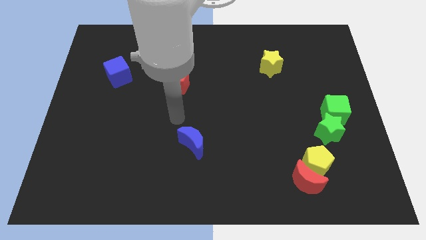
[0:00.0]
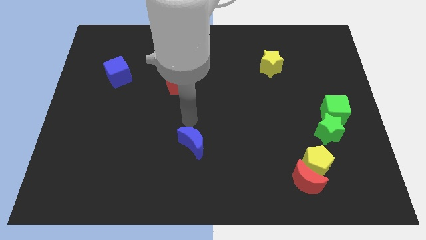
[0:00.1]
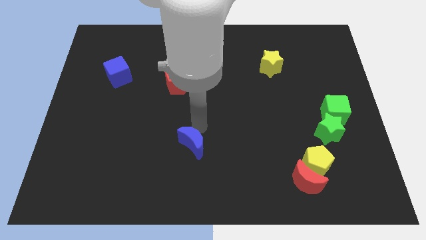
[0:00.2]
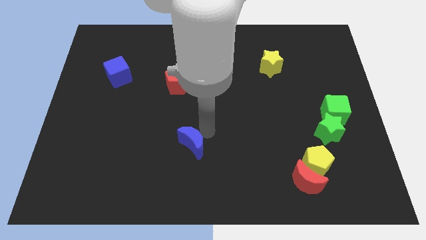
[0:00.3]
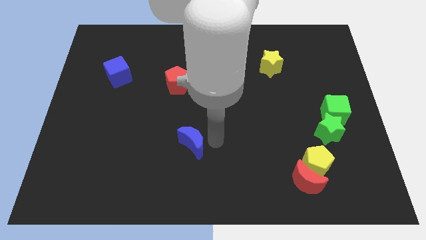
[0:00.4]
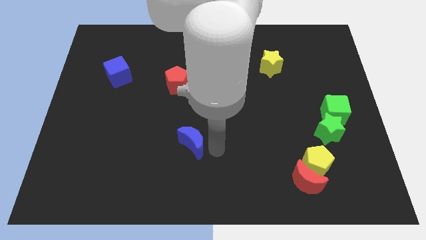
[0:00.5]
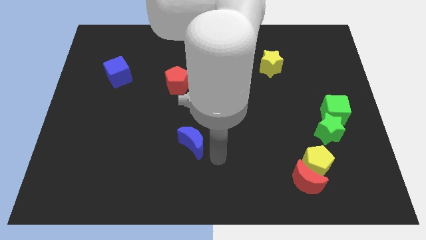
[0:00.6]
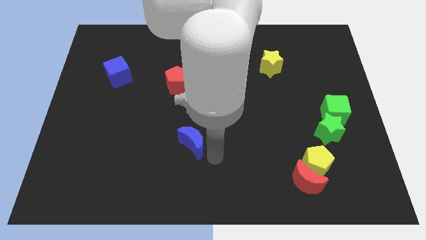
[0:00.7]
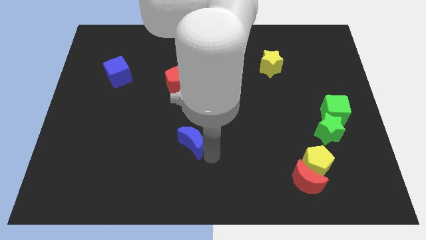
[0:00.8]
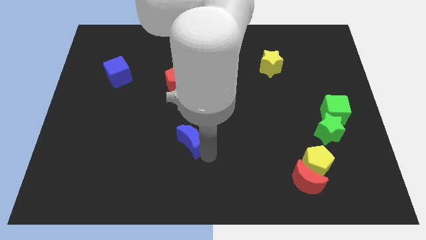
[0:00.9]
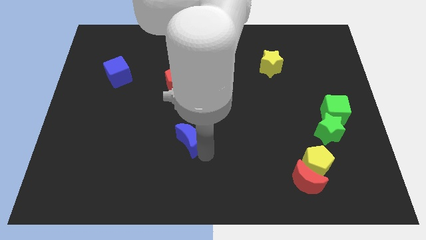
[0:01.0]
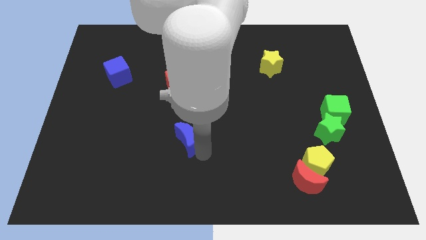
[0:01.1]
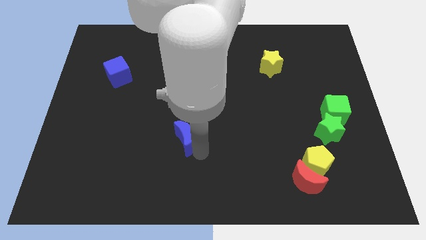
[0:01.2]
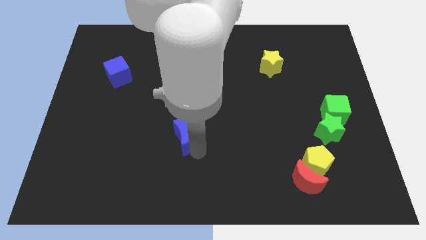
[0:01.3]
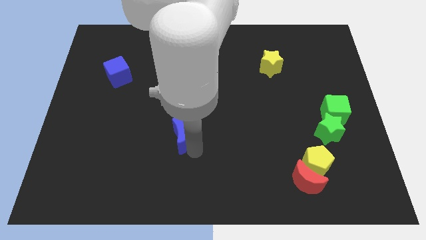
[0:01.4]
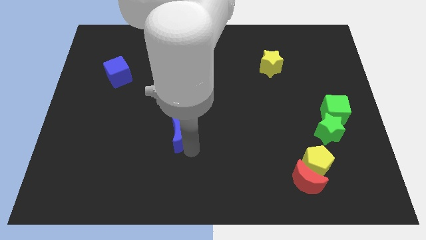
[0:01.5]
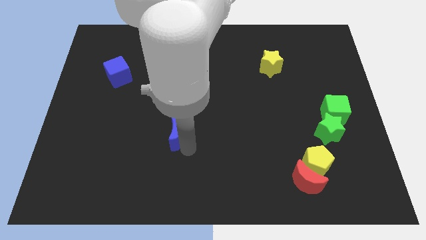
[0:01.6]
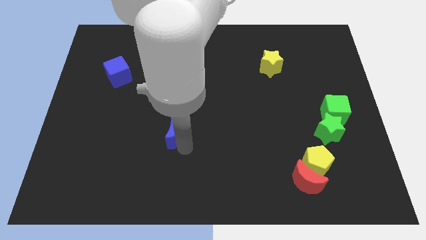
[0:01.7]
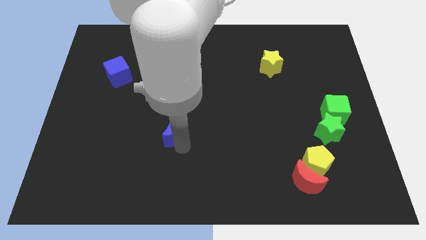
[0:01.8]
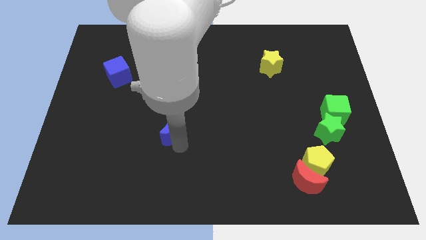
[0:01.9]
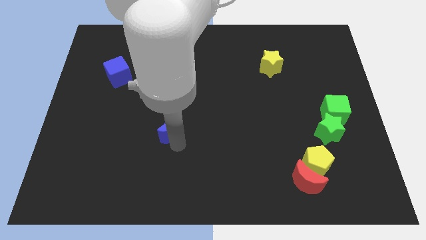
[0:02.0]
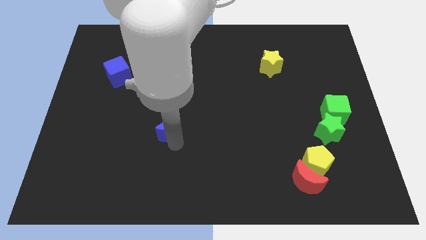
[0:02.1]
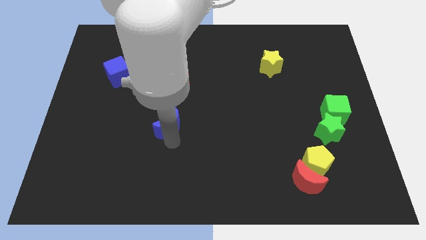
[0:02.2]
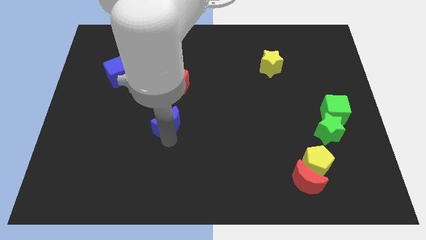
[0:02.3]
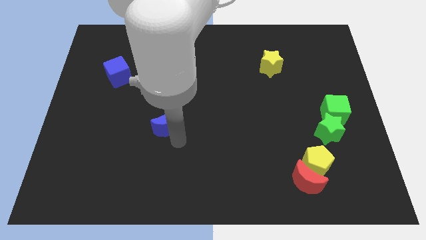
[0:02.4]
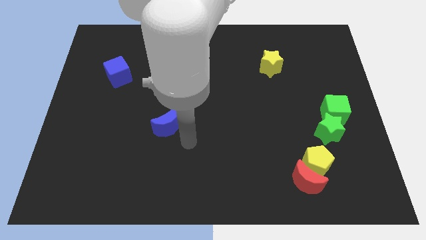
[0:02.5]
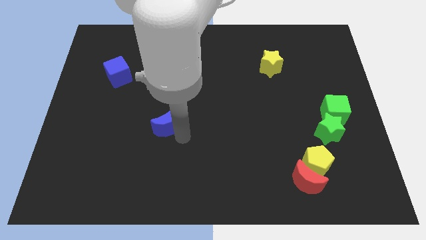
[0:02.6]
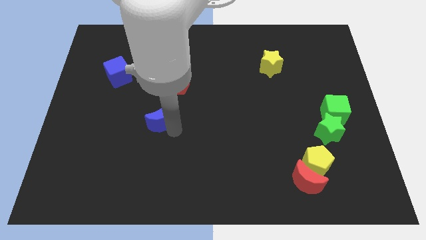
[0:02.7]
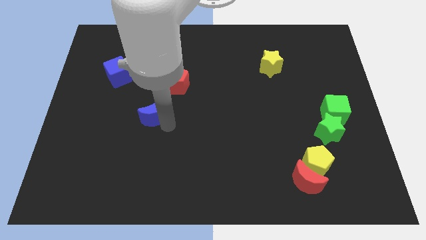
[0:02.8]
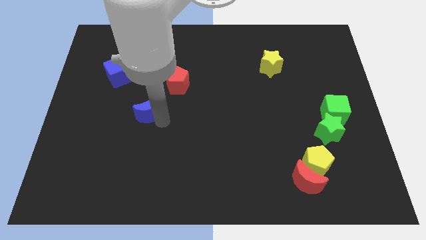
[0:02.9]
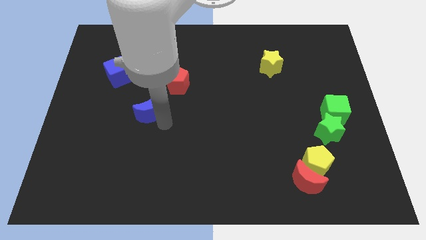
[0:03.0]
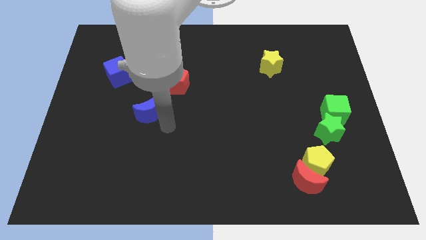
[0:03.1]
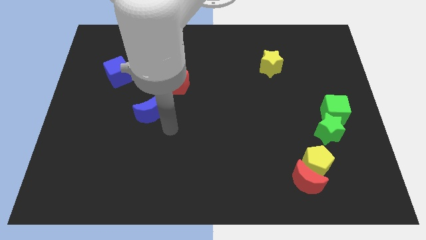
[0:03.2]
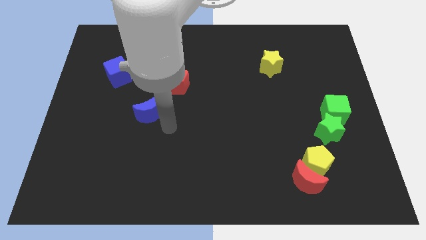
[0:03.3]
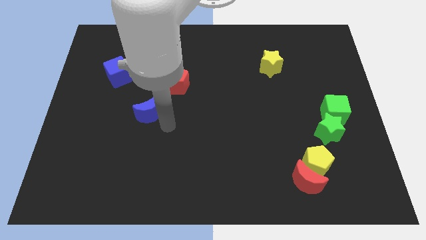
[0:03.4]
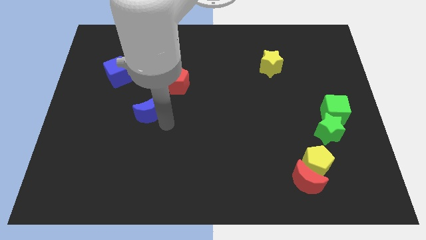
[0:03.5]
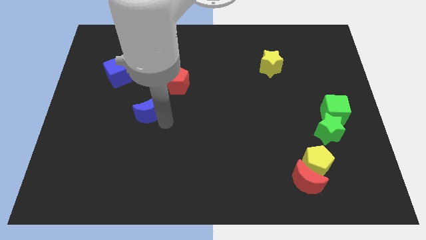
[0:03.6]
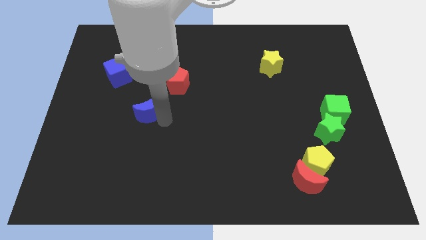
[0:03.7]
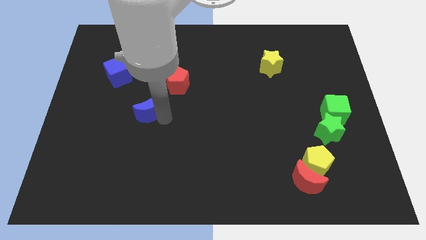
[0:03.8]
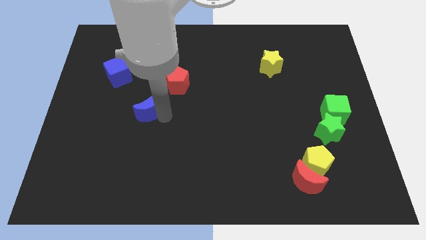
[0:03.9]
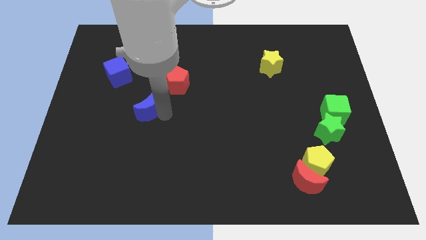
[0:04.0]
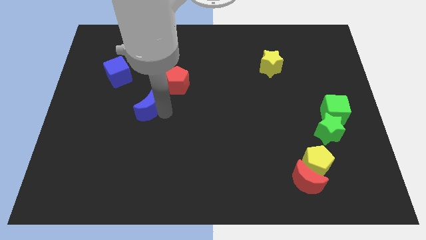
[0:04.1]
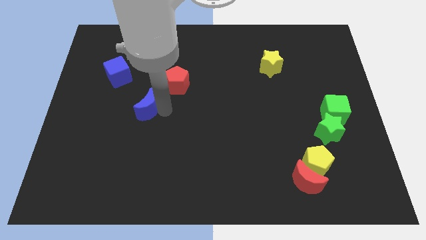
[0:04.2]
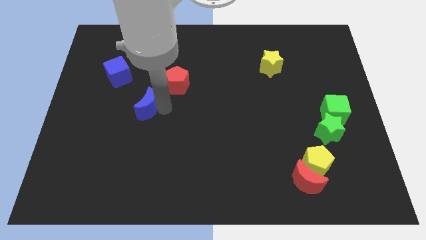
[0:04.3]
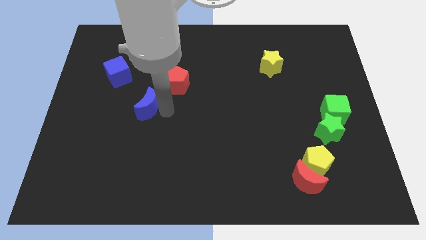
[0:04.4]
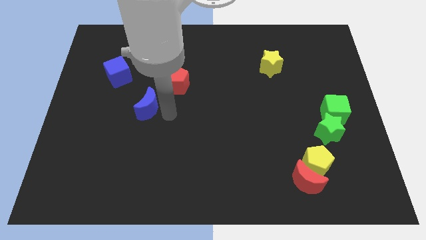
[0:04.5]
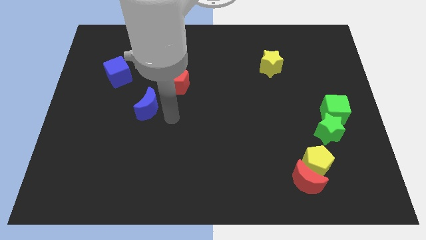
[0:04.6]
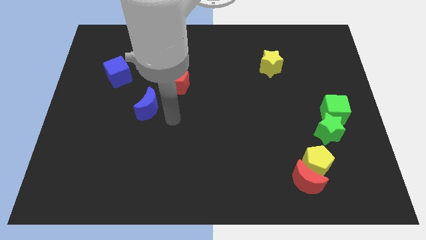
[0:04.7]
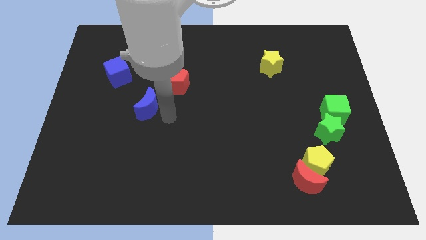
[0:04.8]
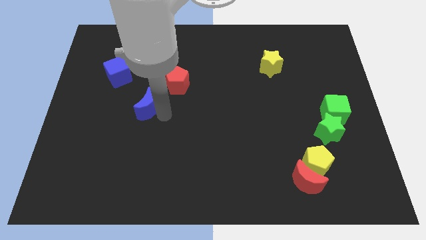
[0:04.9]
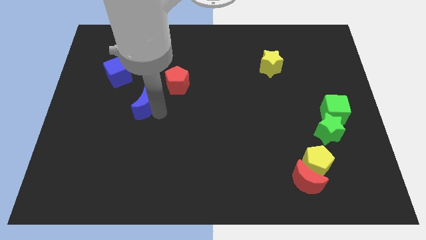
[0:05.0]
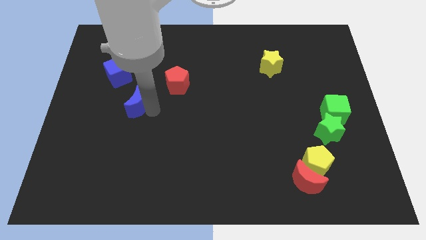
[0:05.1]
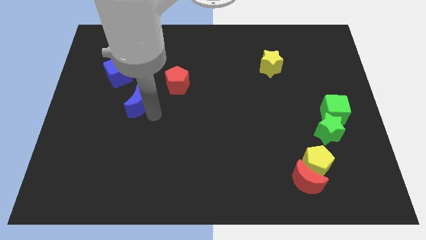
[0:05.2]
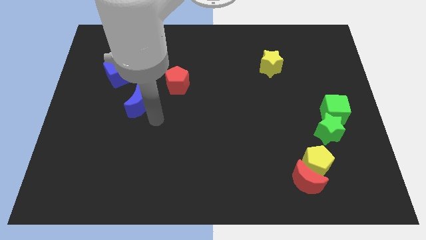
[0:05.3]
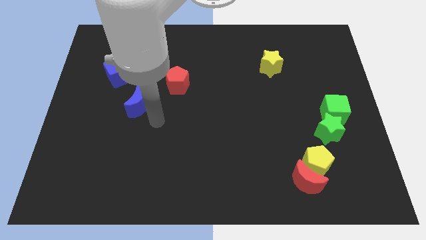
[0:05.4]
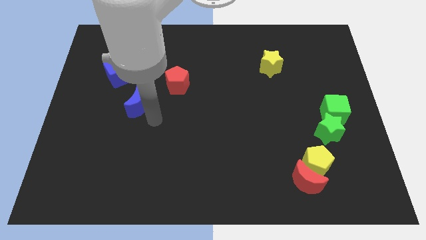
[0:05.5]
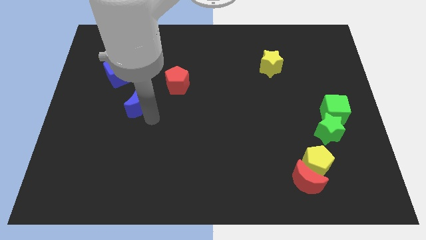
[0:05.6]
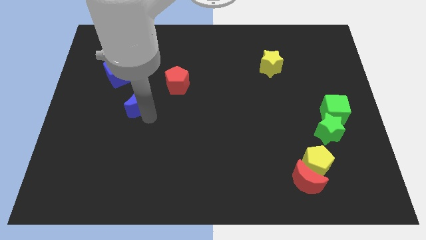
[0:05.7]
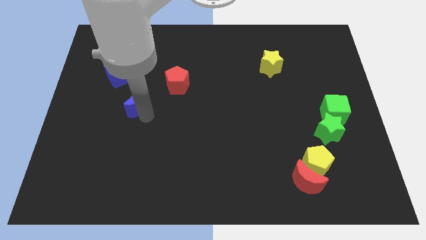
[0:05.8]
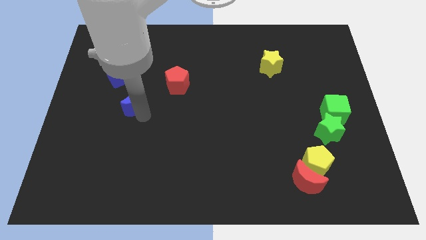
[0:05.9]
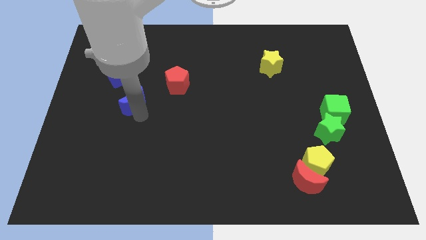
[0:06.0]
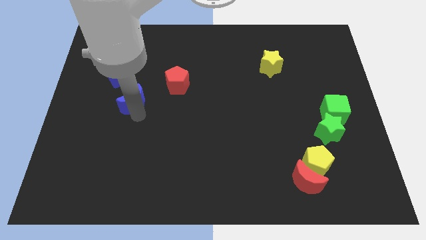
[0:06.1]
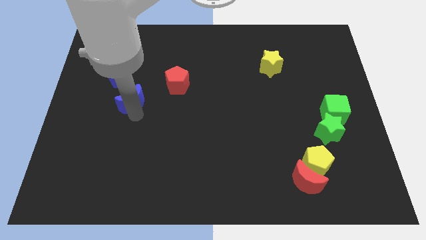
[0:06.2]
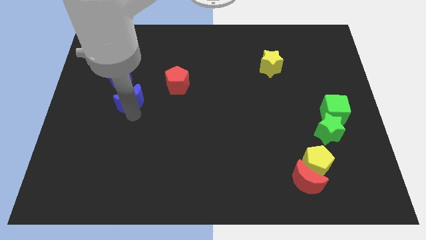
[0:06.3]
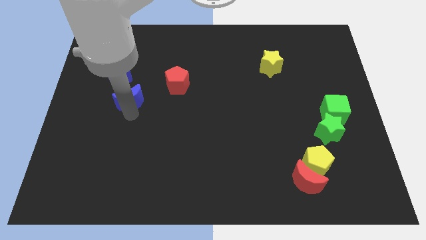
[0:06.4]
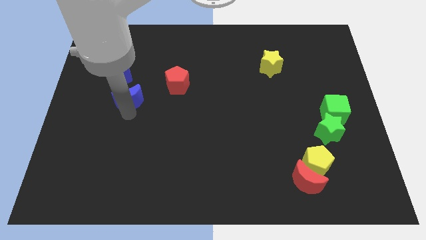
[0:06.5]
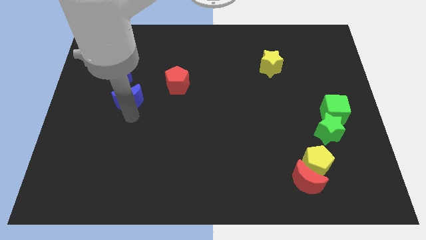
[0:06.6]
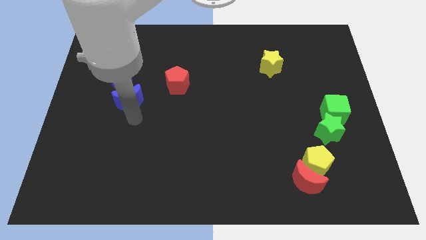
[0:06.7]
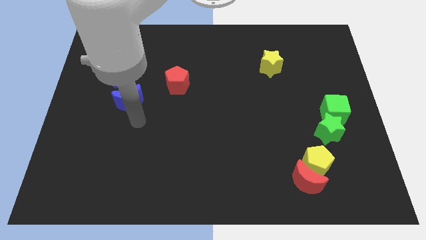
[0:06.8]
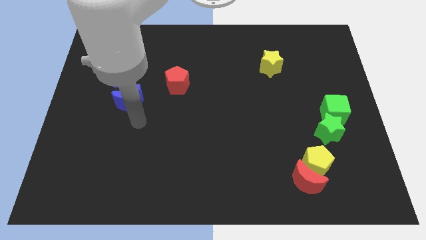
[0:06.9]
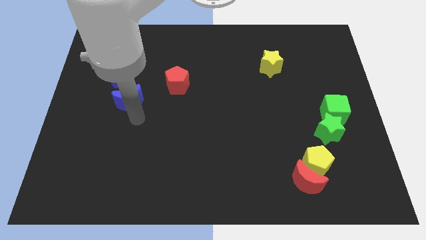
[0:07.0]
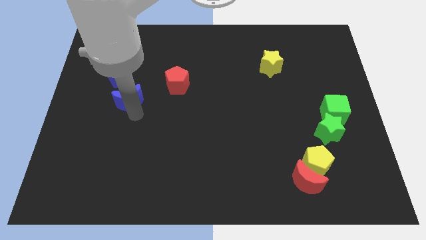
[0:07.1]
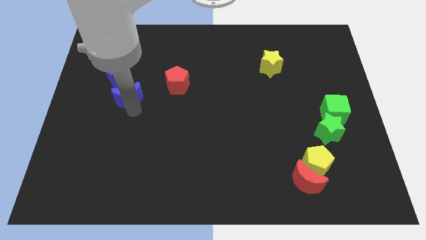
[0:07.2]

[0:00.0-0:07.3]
slide the blue moon up and then to the left
